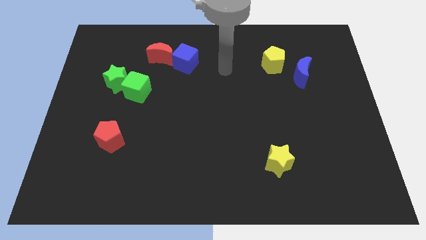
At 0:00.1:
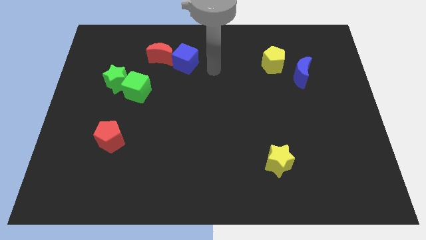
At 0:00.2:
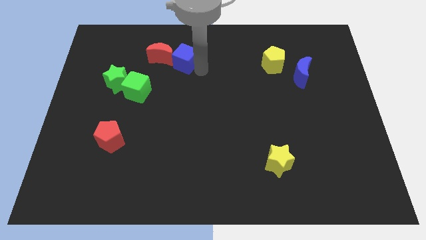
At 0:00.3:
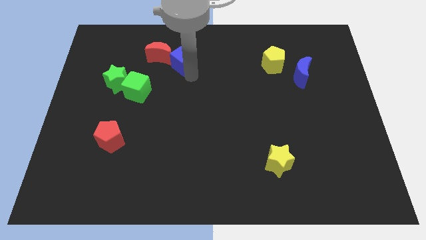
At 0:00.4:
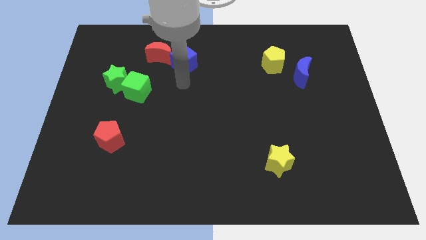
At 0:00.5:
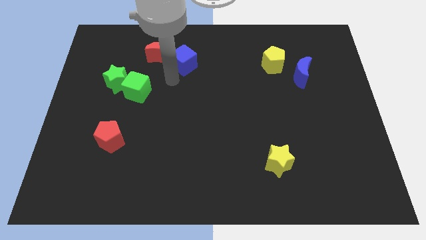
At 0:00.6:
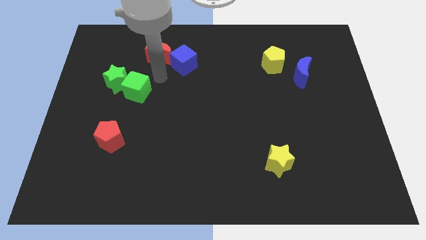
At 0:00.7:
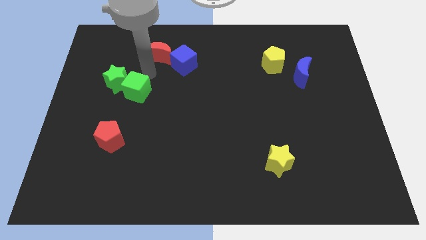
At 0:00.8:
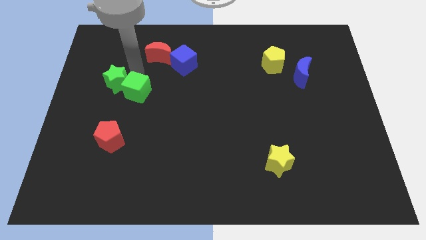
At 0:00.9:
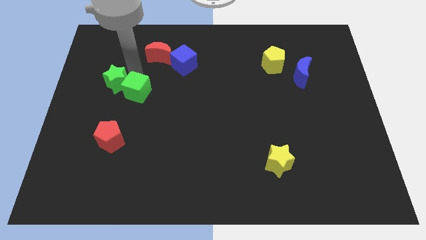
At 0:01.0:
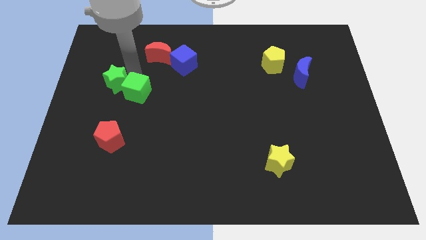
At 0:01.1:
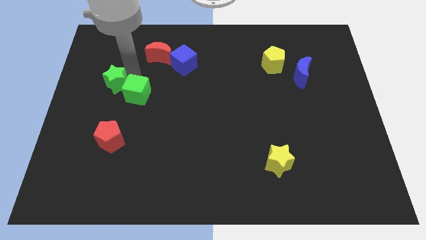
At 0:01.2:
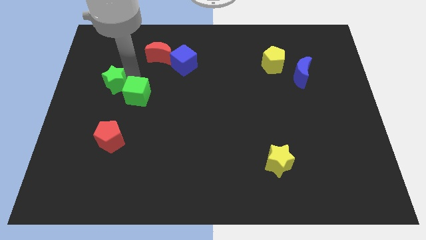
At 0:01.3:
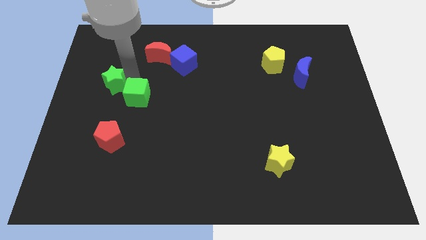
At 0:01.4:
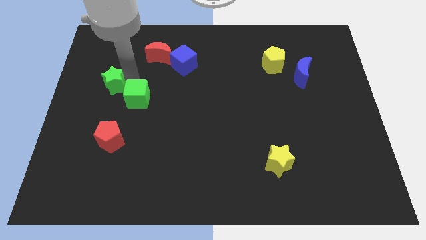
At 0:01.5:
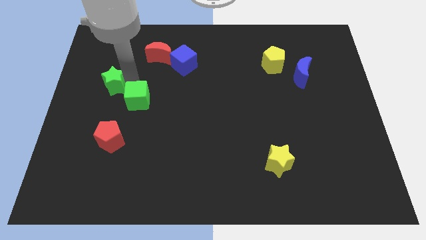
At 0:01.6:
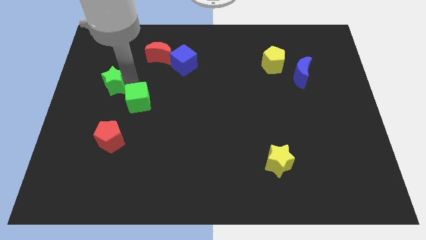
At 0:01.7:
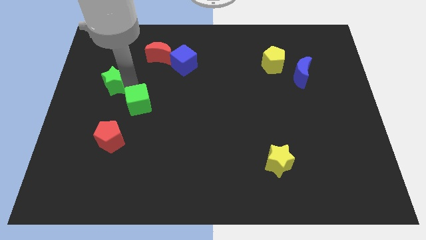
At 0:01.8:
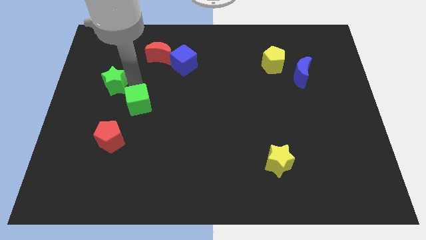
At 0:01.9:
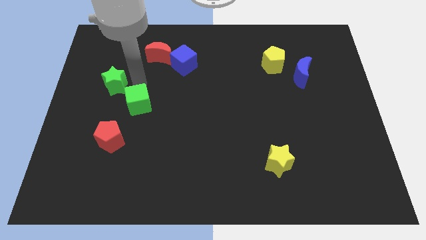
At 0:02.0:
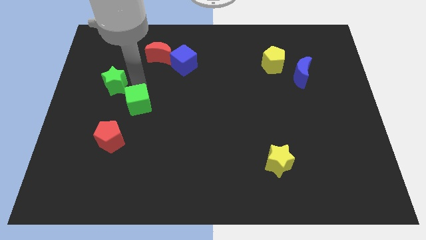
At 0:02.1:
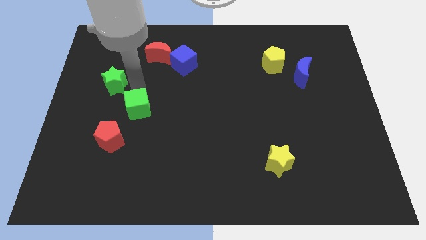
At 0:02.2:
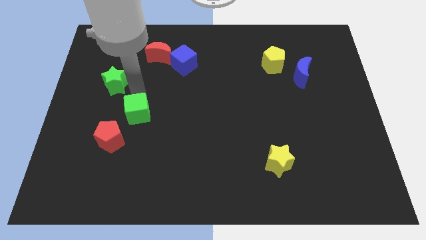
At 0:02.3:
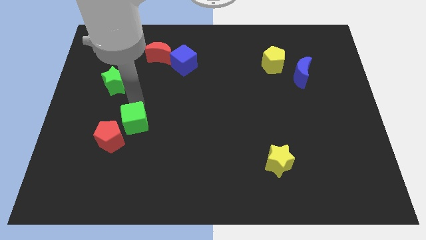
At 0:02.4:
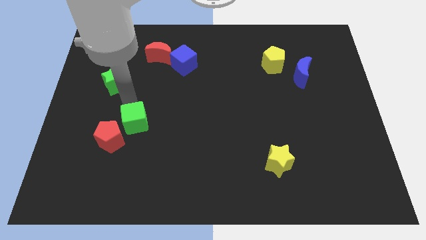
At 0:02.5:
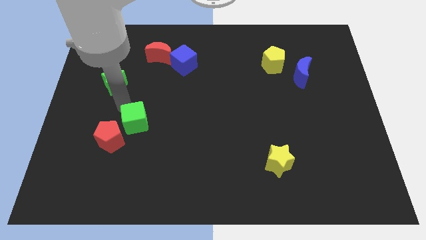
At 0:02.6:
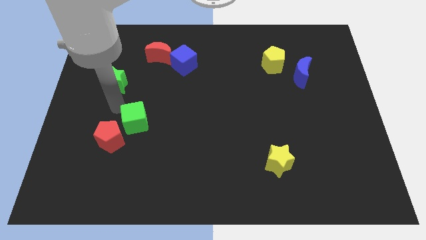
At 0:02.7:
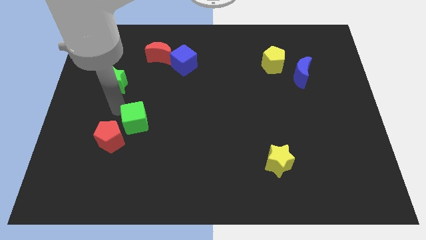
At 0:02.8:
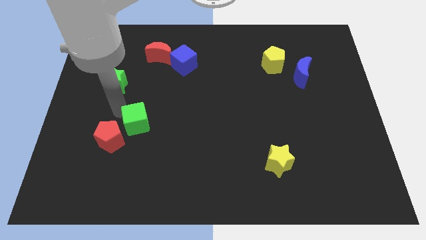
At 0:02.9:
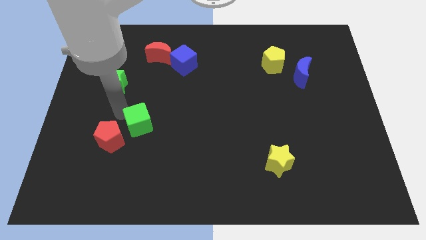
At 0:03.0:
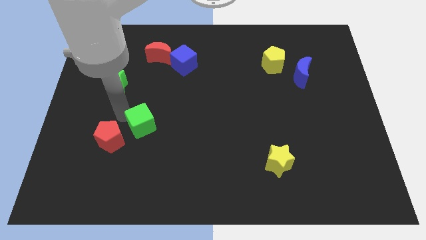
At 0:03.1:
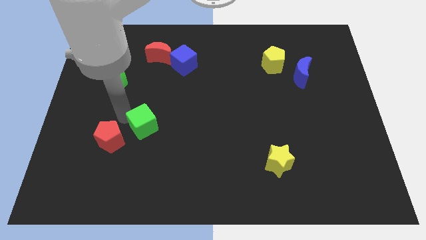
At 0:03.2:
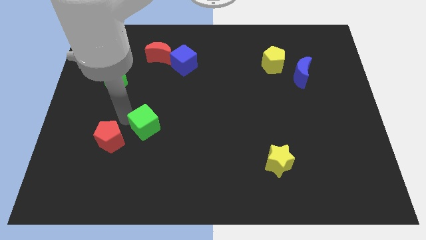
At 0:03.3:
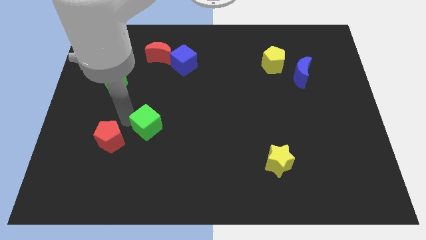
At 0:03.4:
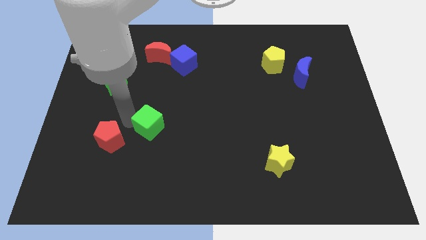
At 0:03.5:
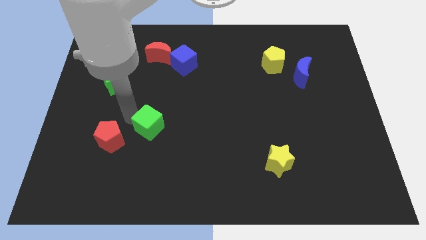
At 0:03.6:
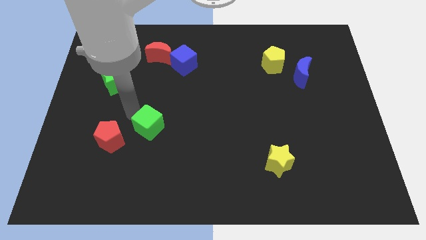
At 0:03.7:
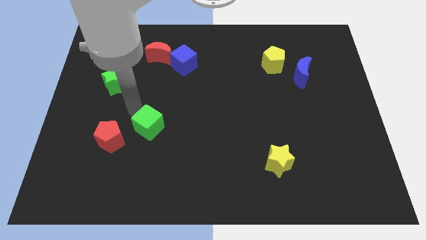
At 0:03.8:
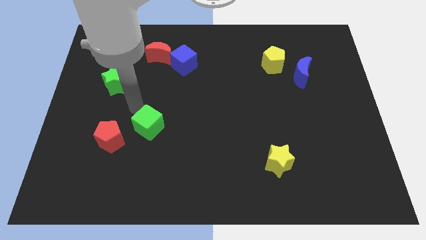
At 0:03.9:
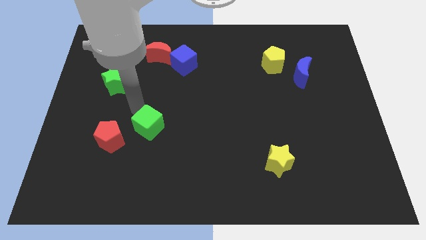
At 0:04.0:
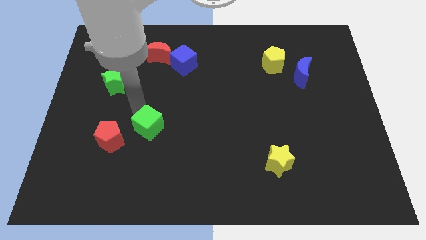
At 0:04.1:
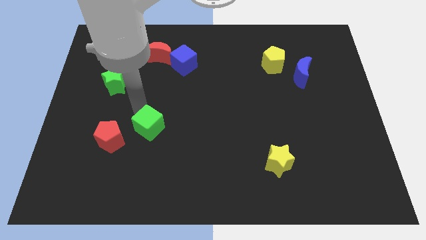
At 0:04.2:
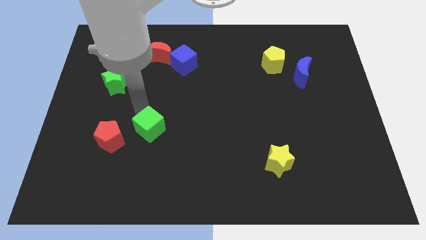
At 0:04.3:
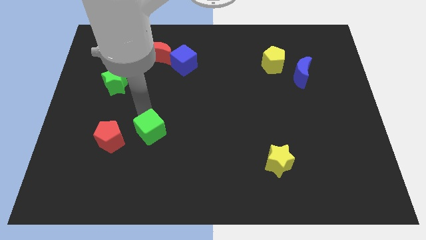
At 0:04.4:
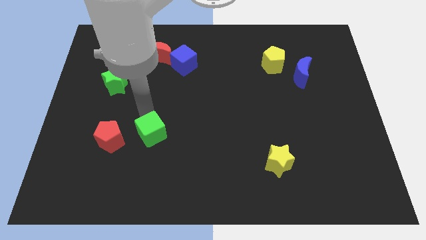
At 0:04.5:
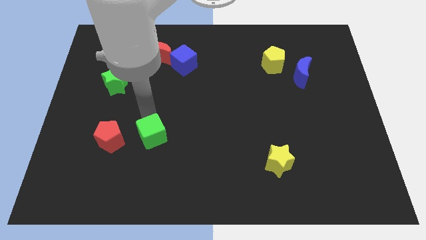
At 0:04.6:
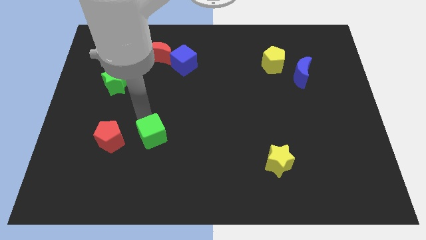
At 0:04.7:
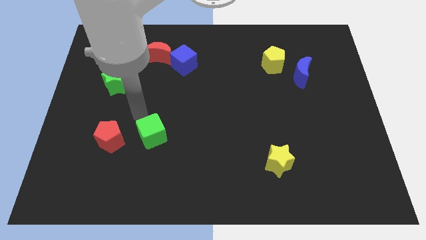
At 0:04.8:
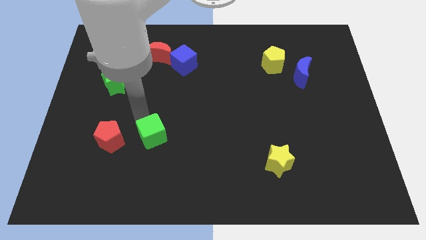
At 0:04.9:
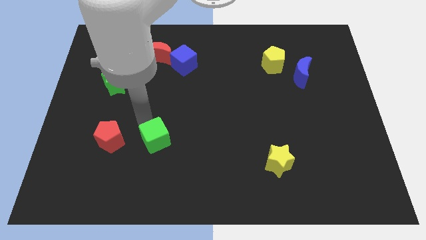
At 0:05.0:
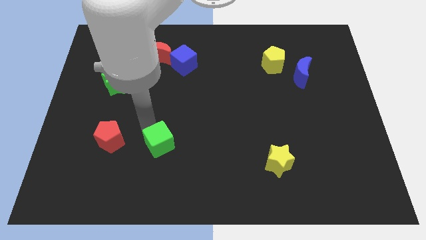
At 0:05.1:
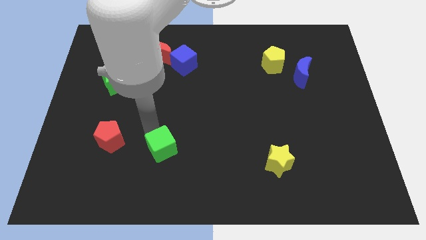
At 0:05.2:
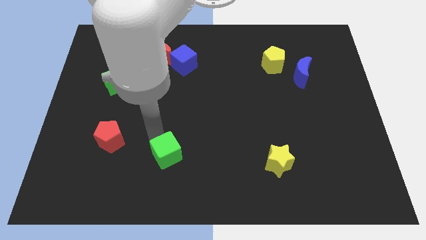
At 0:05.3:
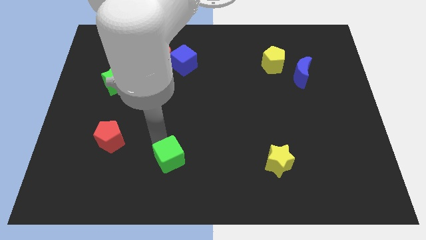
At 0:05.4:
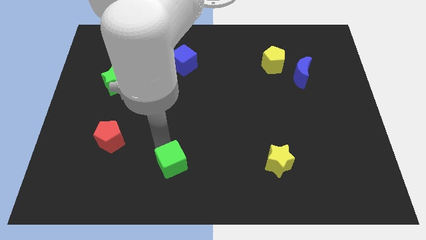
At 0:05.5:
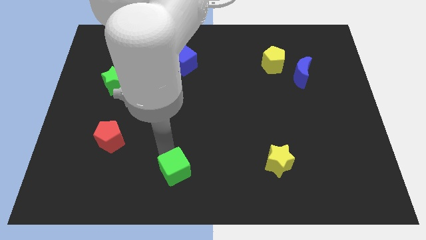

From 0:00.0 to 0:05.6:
put the green cube to the bottom

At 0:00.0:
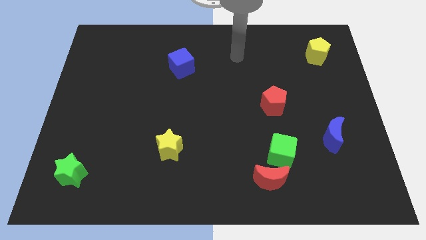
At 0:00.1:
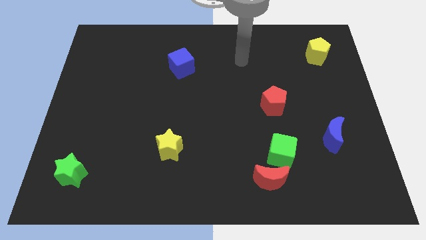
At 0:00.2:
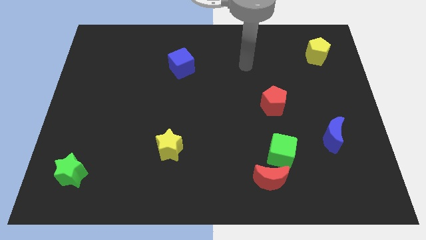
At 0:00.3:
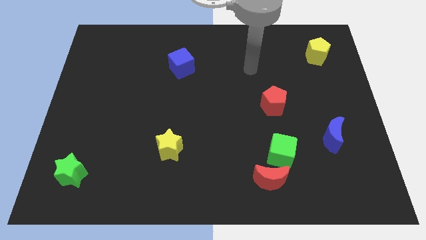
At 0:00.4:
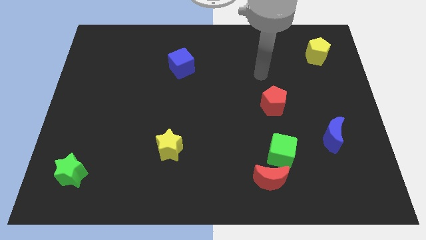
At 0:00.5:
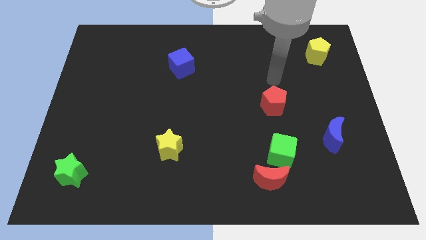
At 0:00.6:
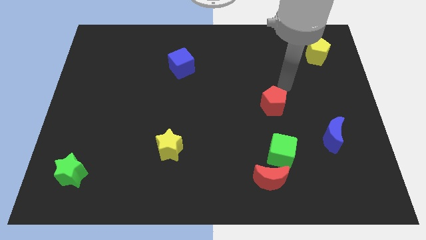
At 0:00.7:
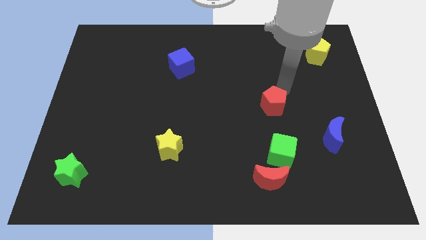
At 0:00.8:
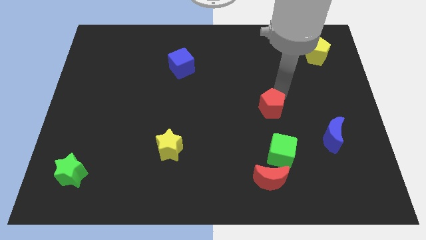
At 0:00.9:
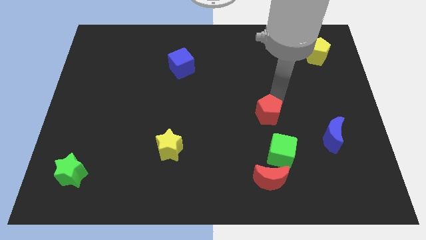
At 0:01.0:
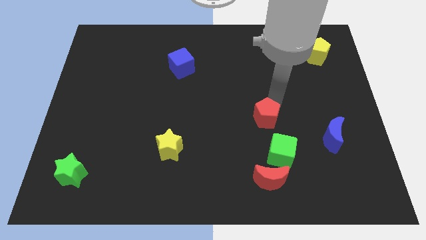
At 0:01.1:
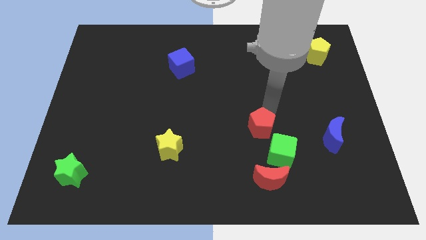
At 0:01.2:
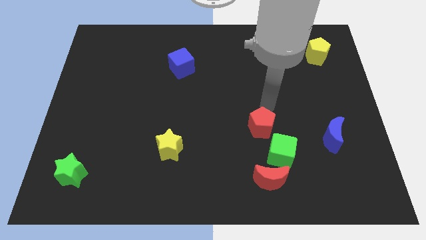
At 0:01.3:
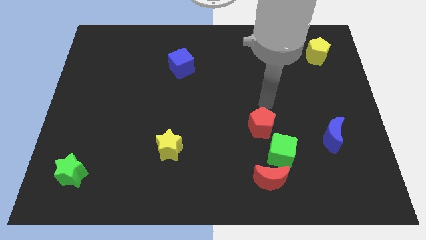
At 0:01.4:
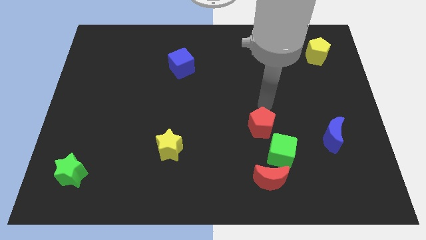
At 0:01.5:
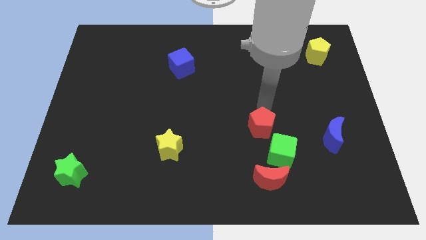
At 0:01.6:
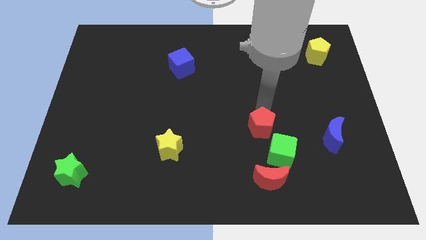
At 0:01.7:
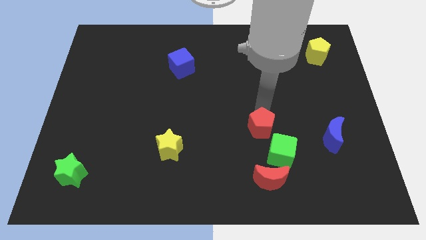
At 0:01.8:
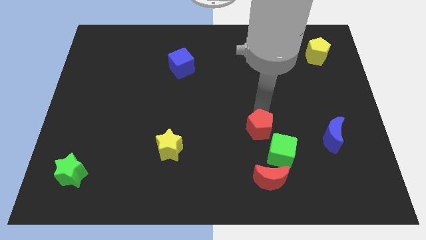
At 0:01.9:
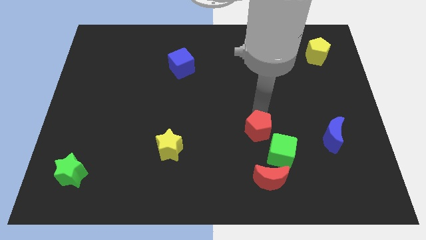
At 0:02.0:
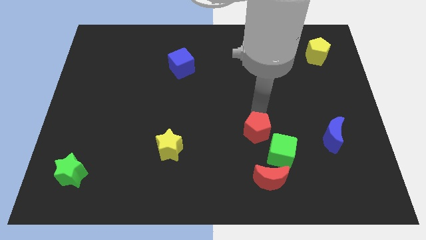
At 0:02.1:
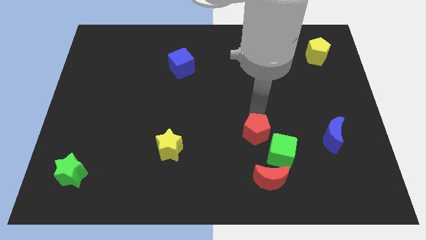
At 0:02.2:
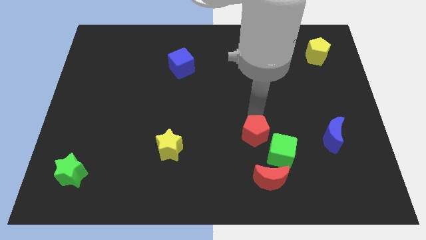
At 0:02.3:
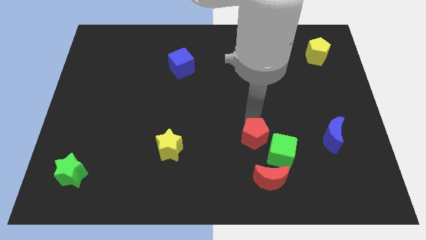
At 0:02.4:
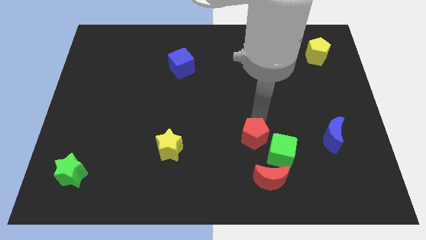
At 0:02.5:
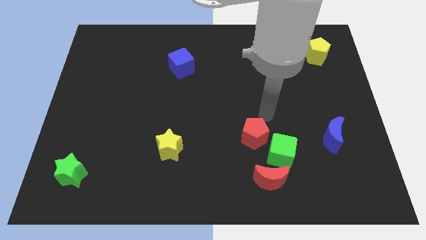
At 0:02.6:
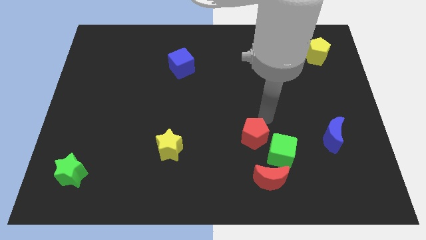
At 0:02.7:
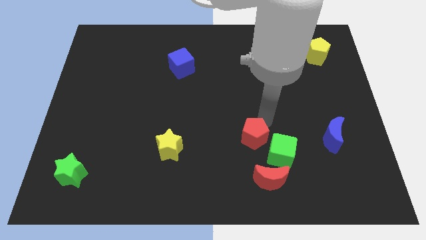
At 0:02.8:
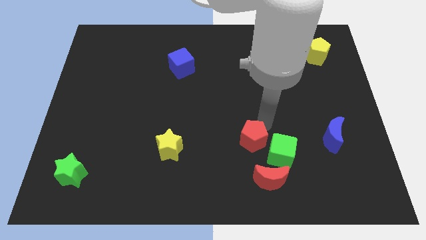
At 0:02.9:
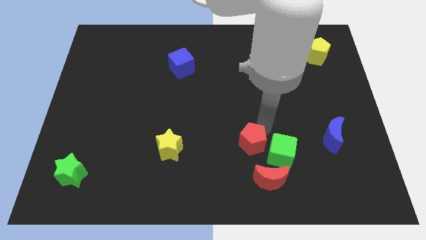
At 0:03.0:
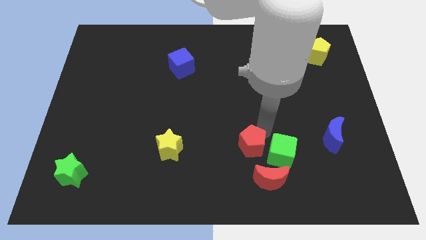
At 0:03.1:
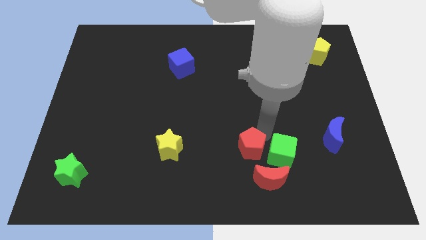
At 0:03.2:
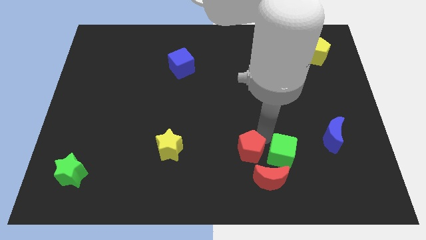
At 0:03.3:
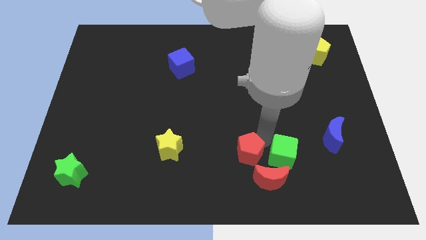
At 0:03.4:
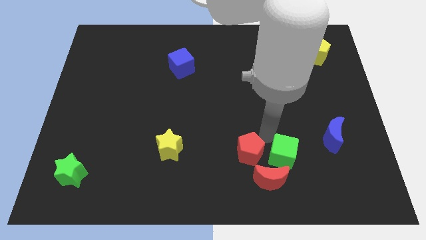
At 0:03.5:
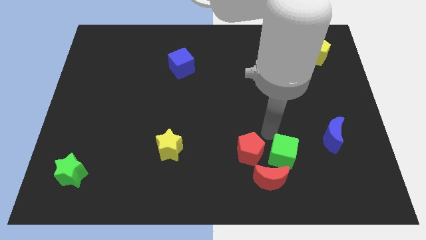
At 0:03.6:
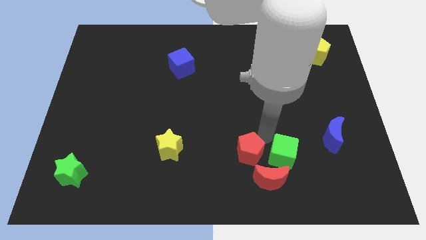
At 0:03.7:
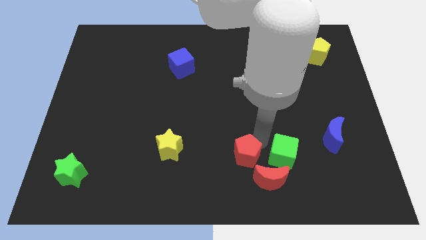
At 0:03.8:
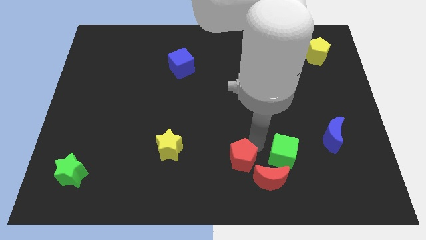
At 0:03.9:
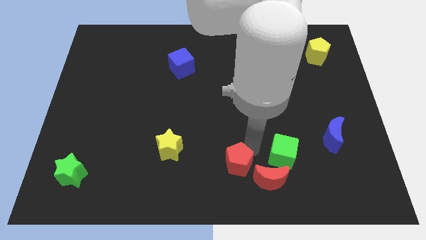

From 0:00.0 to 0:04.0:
move the red pentagon to the bottom side
